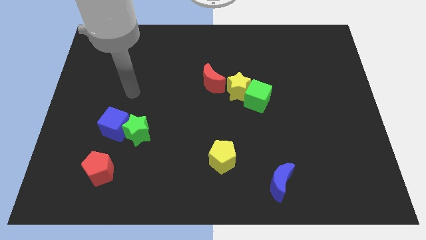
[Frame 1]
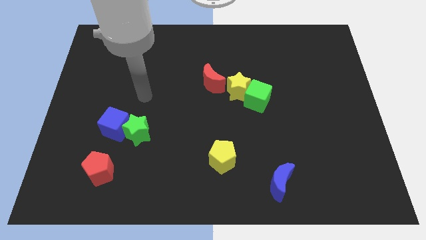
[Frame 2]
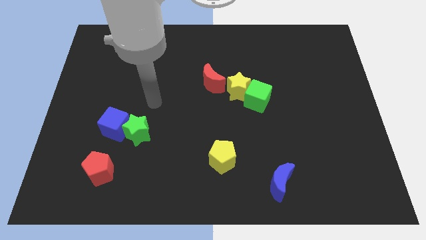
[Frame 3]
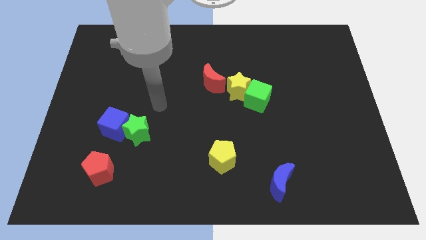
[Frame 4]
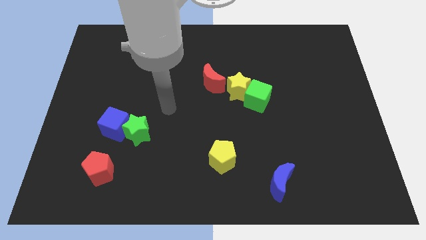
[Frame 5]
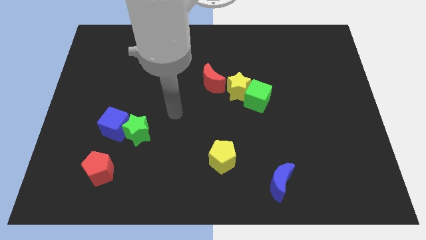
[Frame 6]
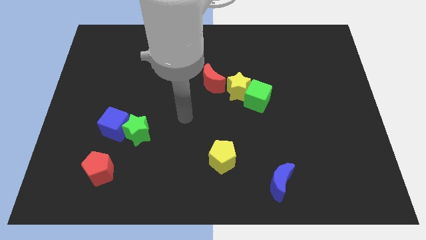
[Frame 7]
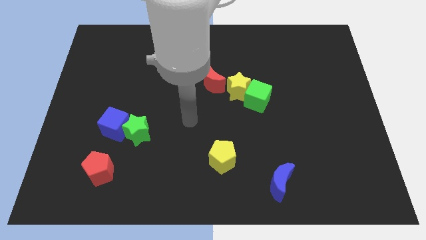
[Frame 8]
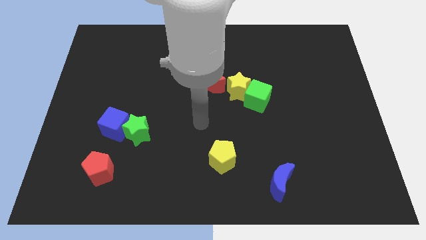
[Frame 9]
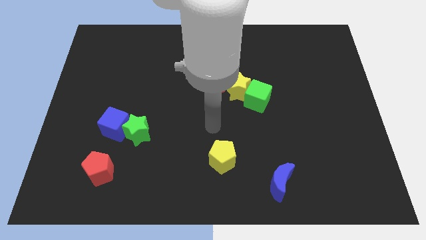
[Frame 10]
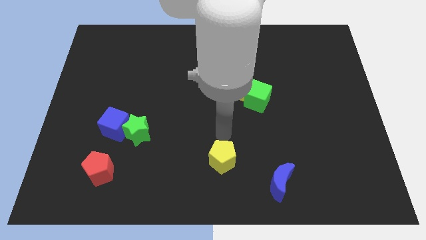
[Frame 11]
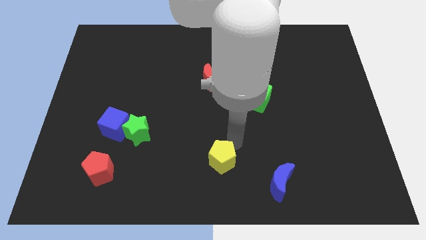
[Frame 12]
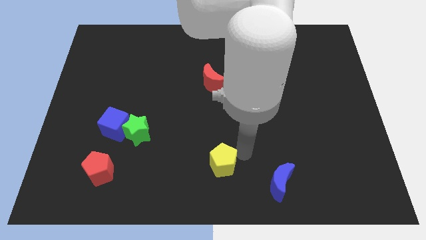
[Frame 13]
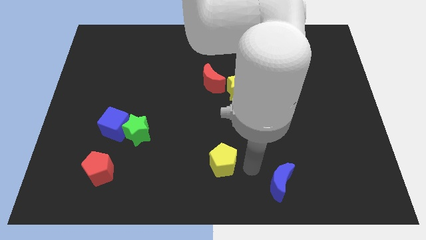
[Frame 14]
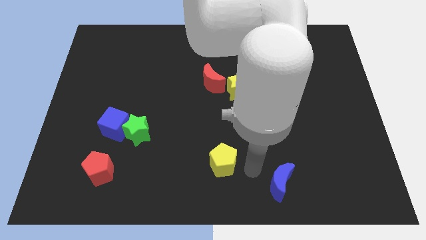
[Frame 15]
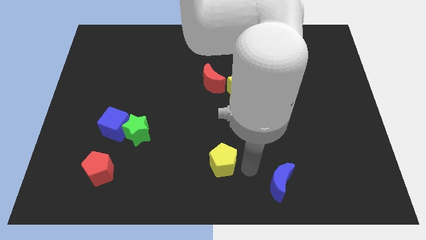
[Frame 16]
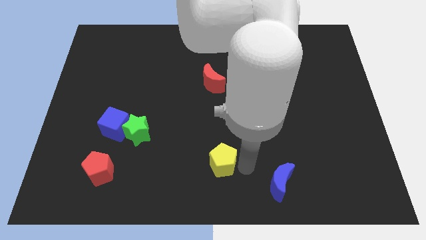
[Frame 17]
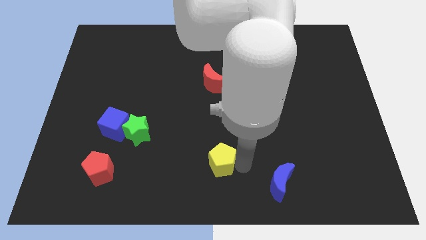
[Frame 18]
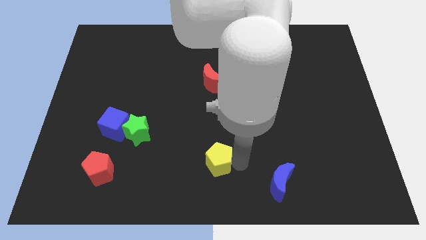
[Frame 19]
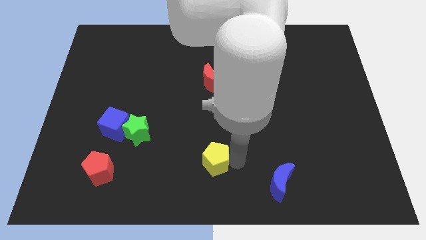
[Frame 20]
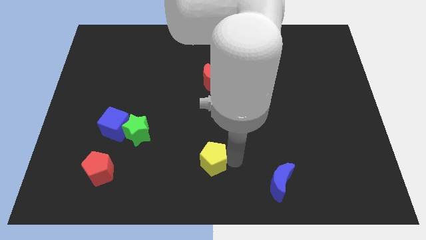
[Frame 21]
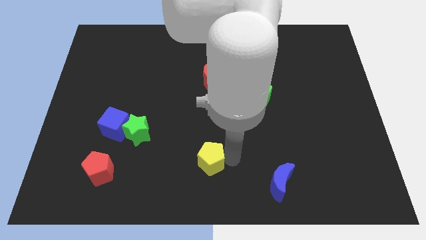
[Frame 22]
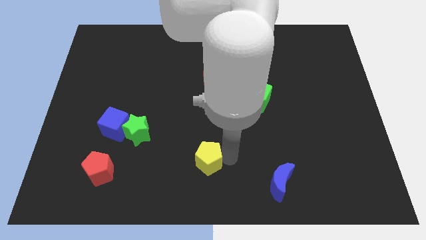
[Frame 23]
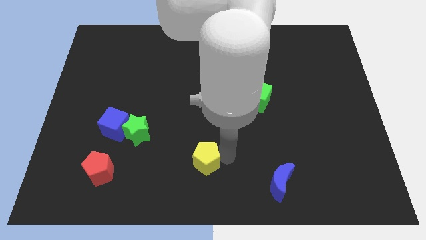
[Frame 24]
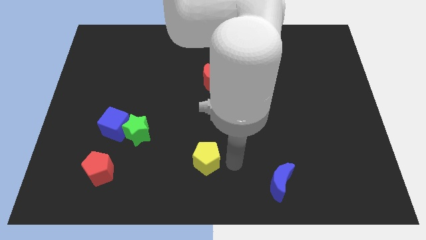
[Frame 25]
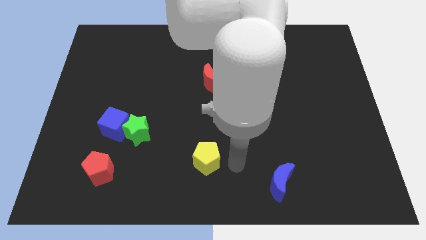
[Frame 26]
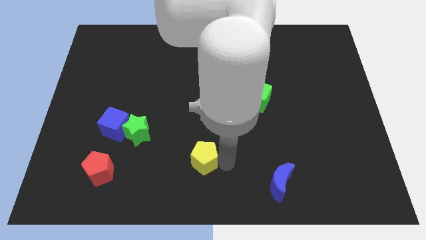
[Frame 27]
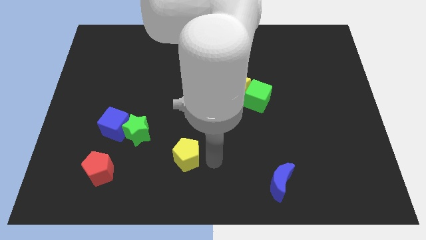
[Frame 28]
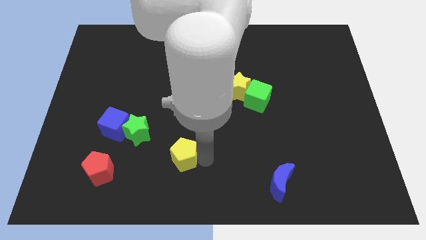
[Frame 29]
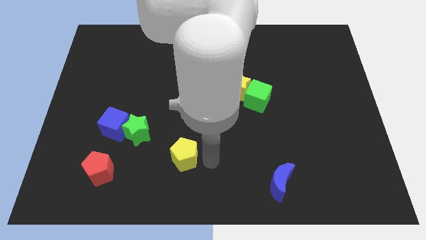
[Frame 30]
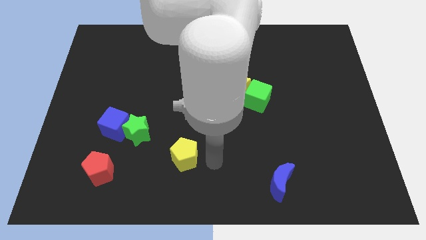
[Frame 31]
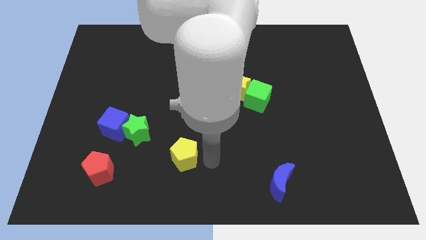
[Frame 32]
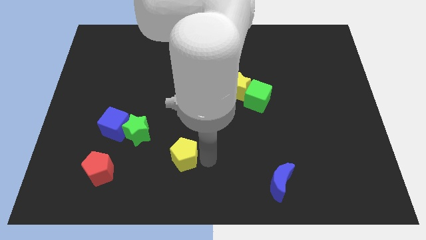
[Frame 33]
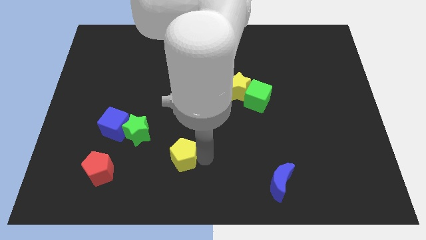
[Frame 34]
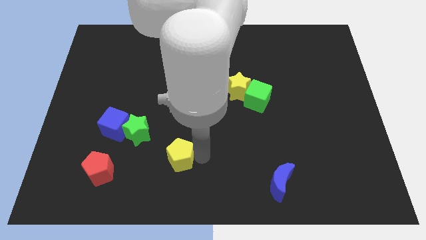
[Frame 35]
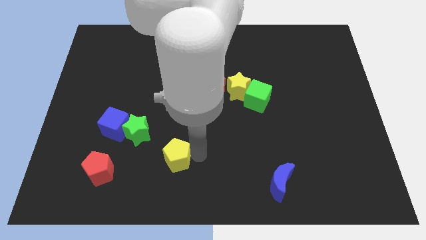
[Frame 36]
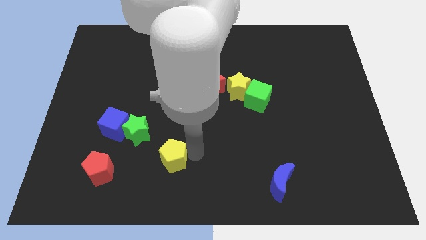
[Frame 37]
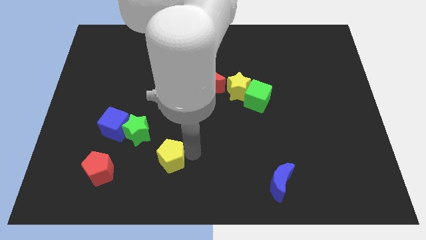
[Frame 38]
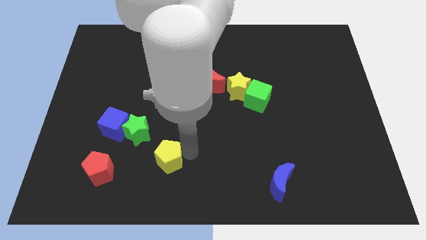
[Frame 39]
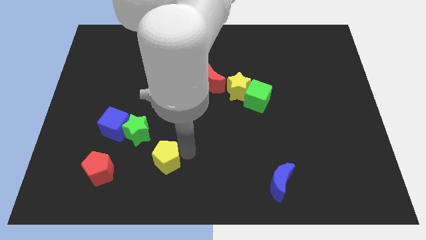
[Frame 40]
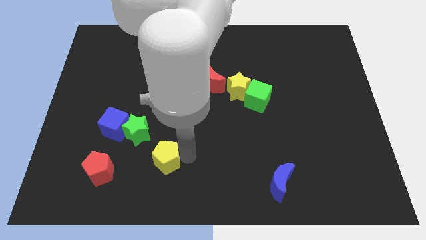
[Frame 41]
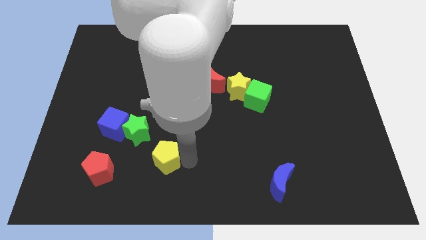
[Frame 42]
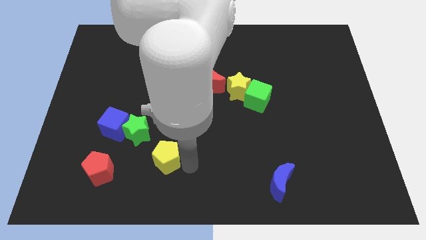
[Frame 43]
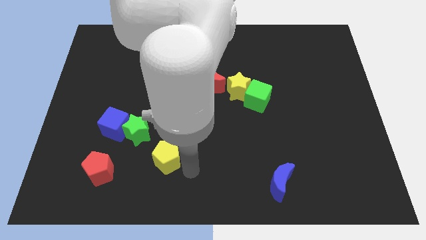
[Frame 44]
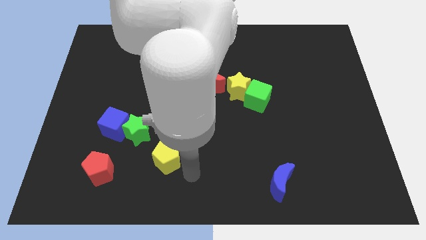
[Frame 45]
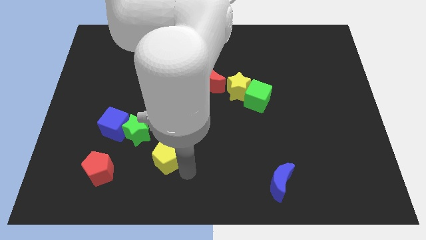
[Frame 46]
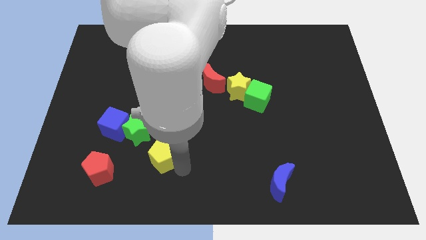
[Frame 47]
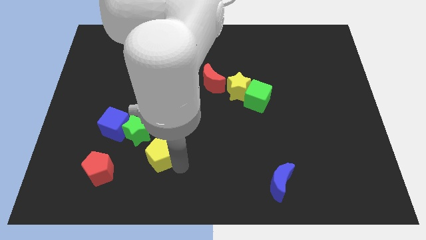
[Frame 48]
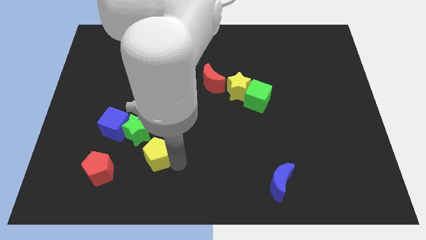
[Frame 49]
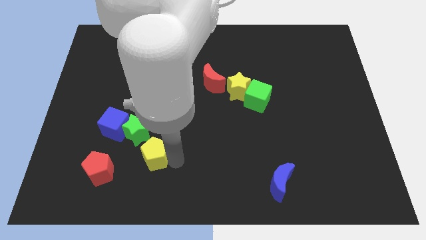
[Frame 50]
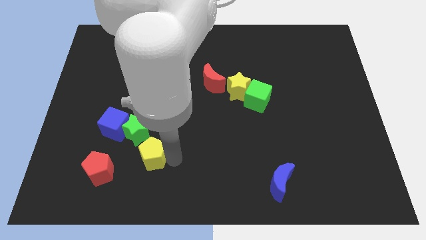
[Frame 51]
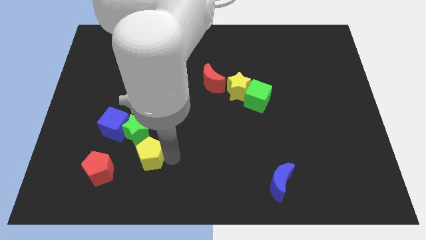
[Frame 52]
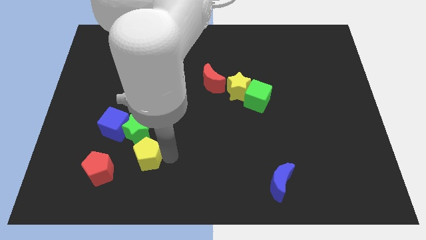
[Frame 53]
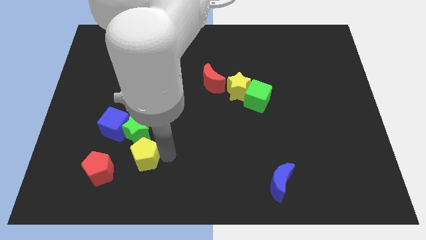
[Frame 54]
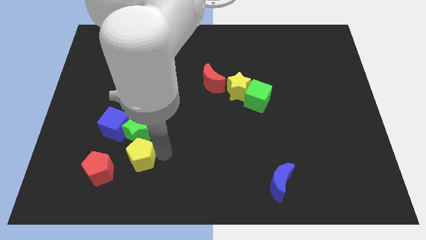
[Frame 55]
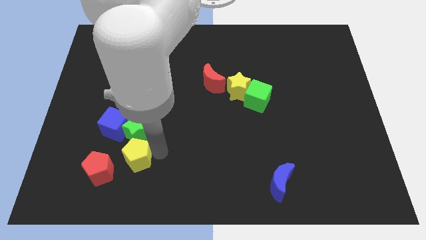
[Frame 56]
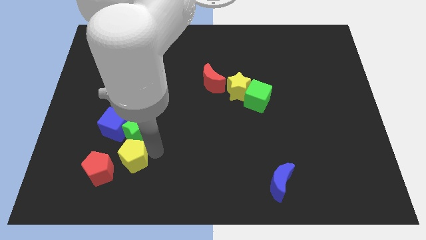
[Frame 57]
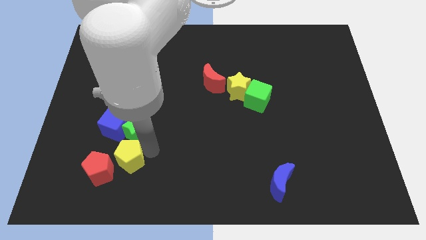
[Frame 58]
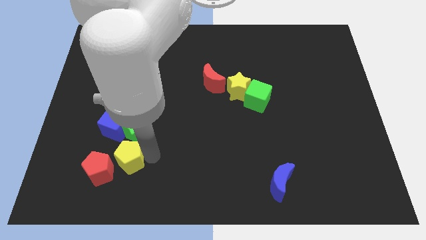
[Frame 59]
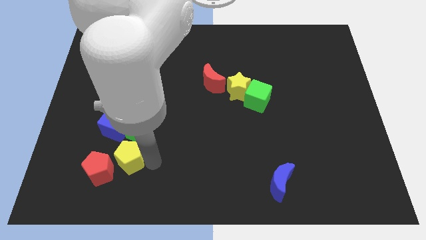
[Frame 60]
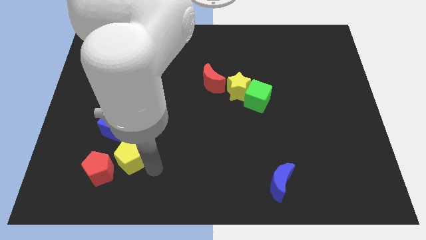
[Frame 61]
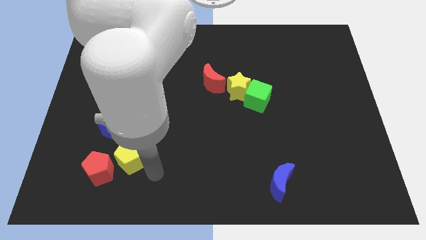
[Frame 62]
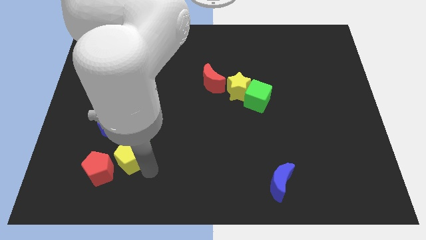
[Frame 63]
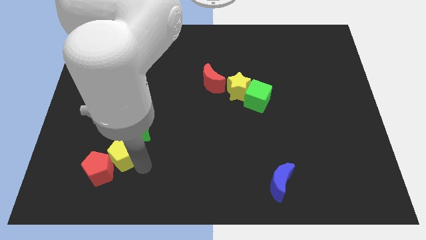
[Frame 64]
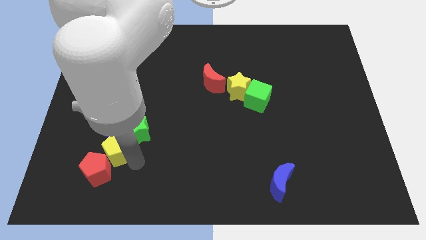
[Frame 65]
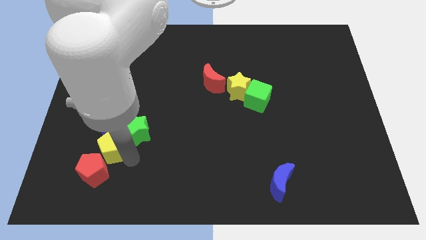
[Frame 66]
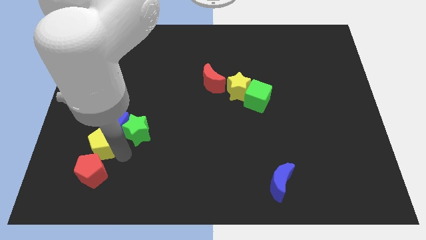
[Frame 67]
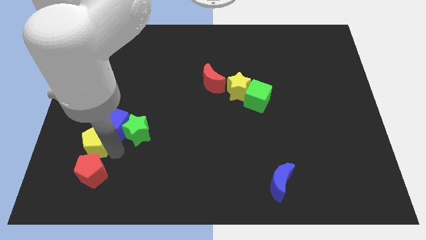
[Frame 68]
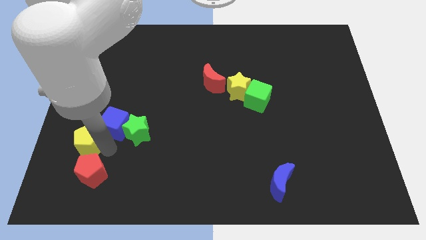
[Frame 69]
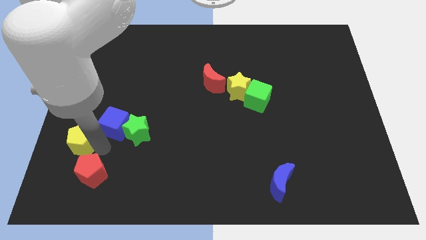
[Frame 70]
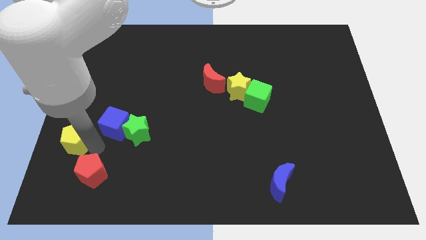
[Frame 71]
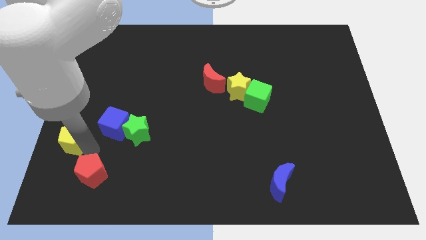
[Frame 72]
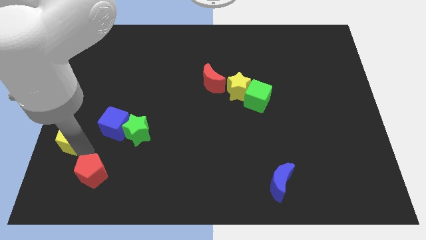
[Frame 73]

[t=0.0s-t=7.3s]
put the yellow pentagon to the left side of the board
